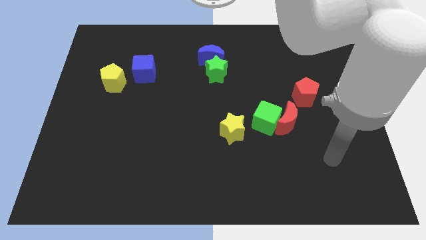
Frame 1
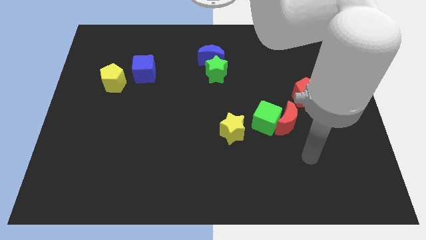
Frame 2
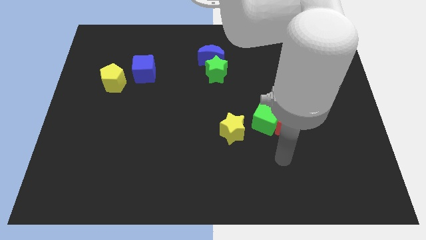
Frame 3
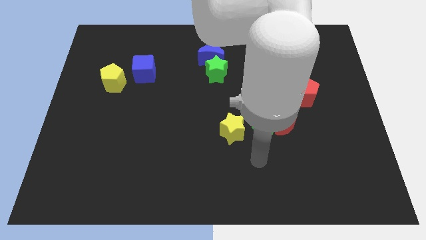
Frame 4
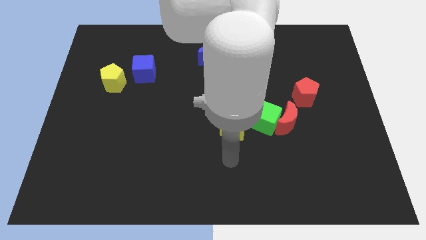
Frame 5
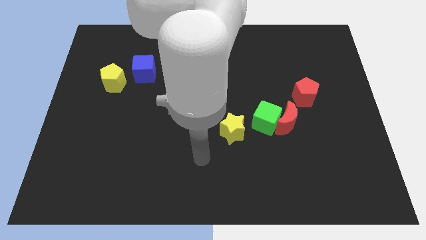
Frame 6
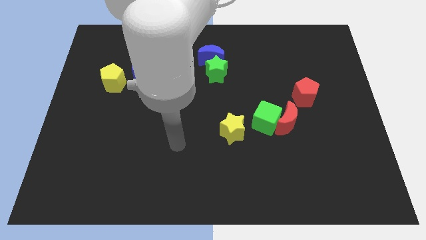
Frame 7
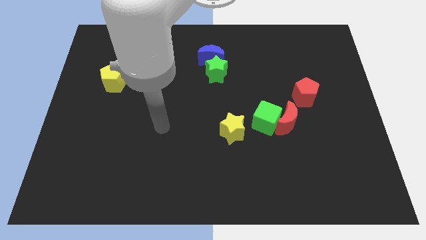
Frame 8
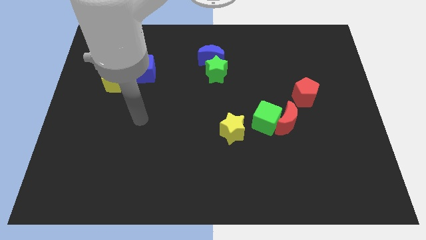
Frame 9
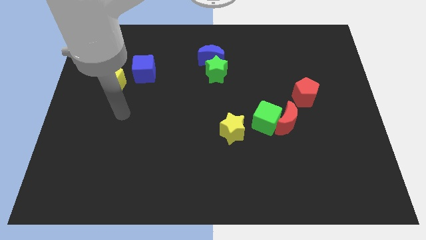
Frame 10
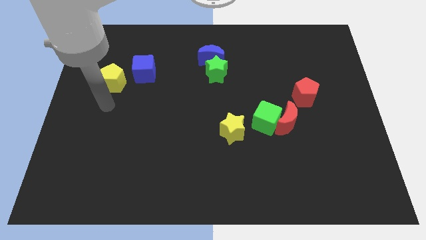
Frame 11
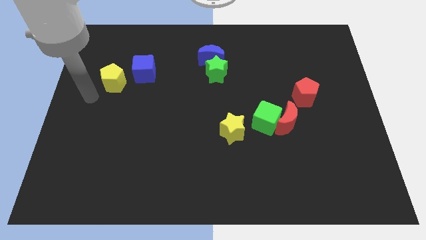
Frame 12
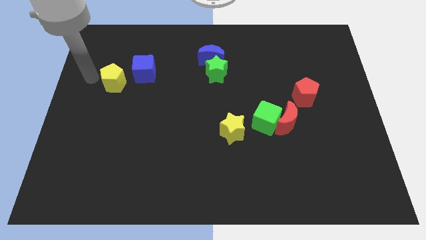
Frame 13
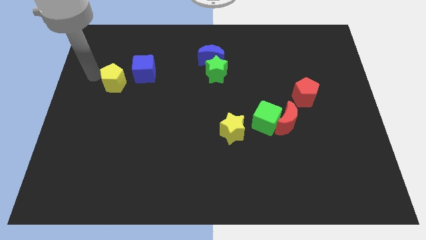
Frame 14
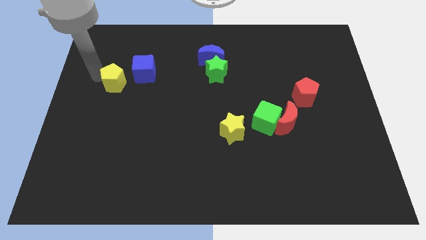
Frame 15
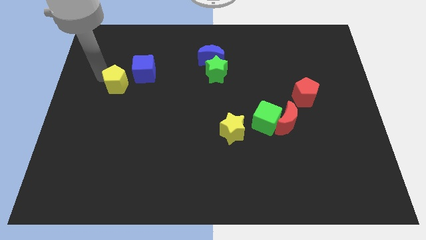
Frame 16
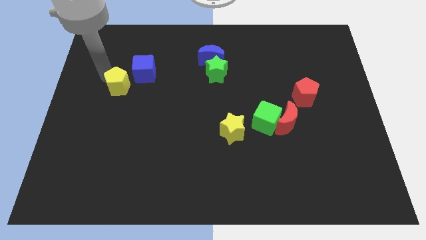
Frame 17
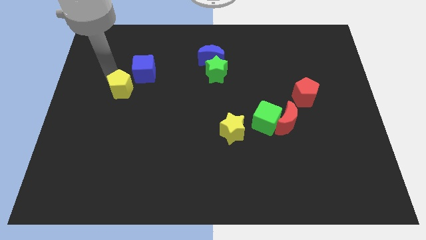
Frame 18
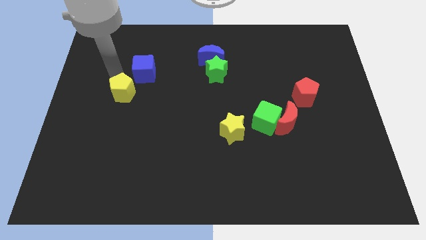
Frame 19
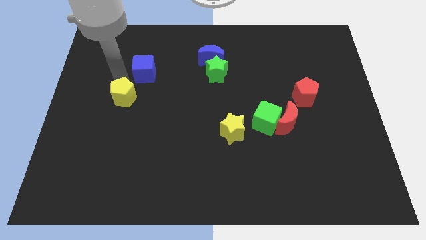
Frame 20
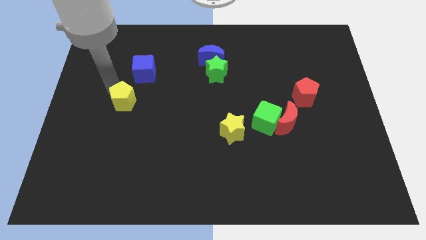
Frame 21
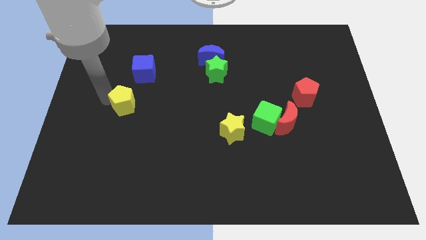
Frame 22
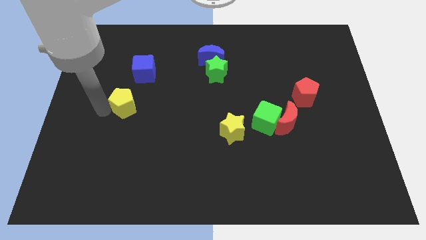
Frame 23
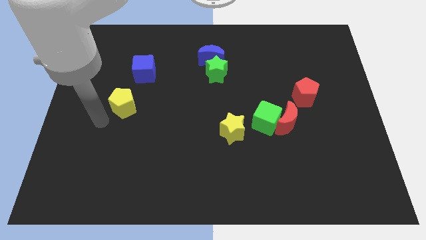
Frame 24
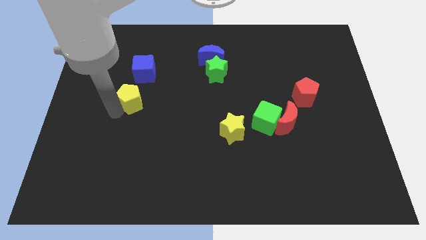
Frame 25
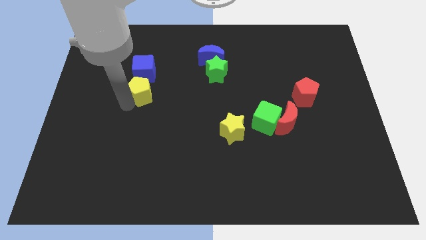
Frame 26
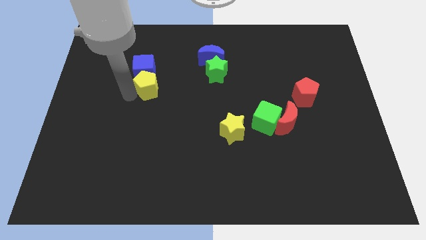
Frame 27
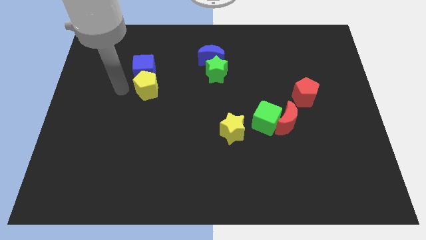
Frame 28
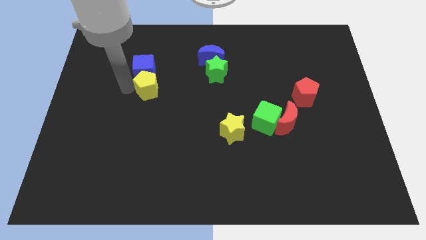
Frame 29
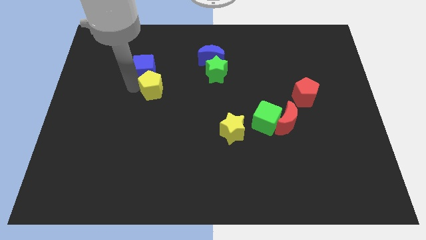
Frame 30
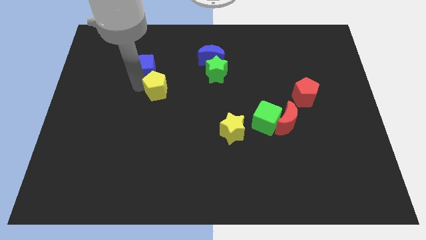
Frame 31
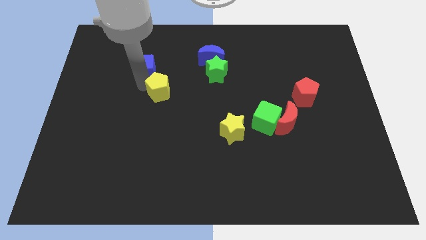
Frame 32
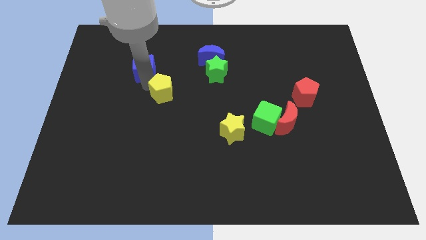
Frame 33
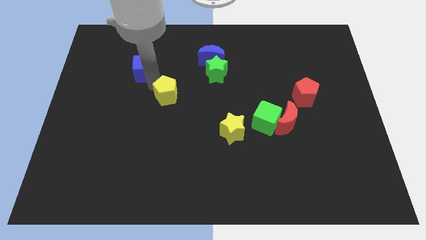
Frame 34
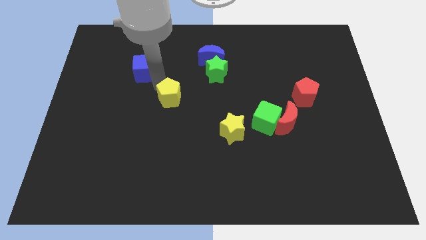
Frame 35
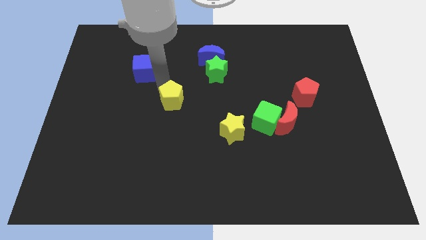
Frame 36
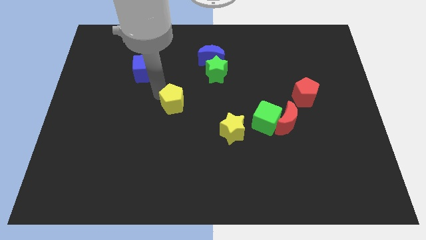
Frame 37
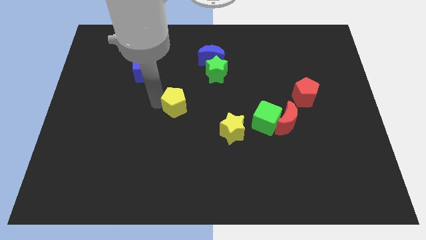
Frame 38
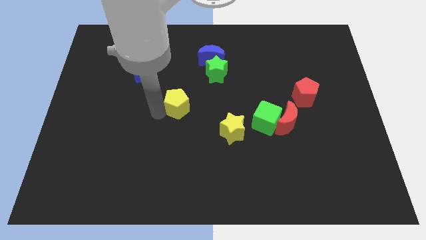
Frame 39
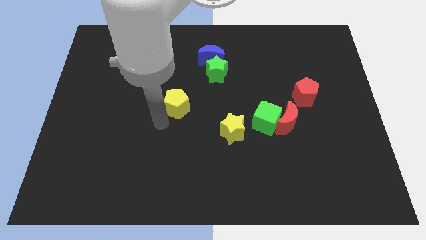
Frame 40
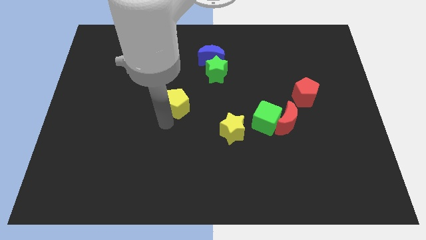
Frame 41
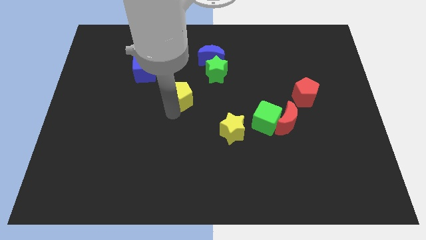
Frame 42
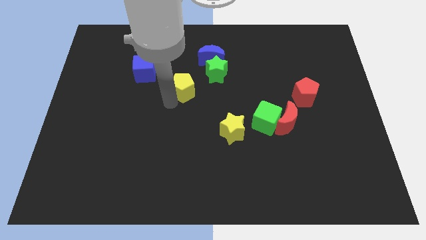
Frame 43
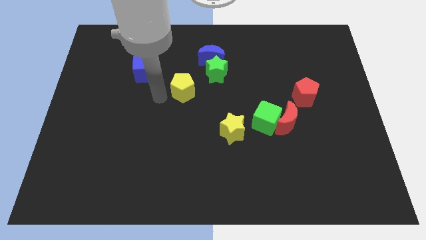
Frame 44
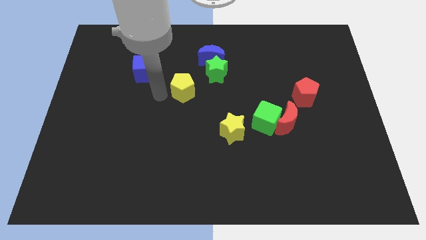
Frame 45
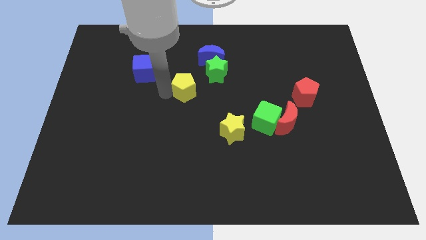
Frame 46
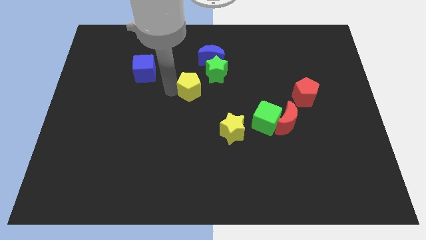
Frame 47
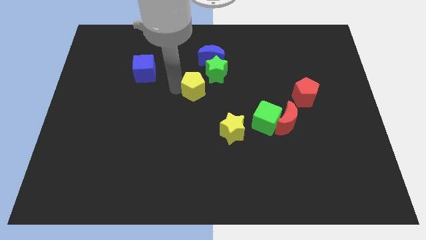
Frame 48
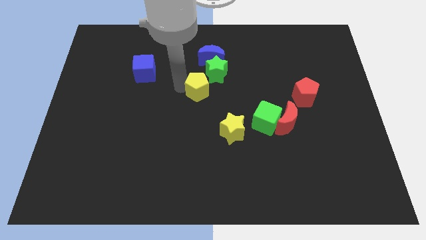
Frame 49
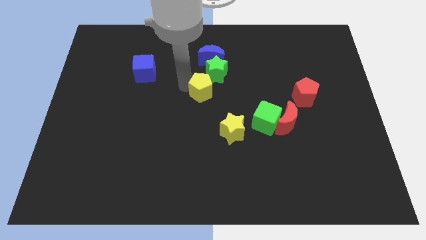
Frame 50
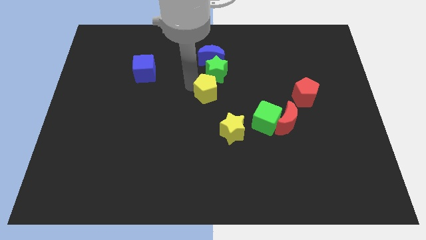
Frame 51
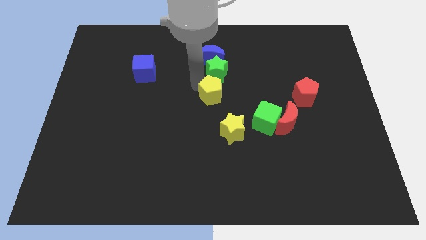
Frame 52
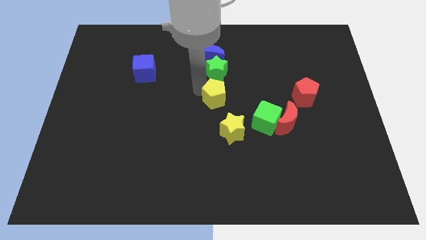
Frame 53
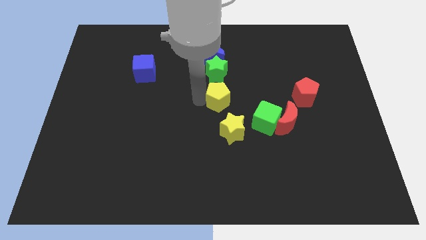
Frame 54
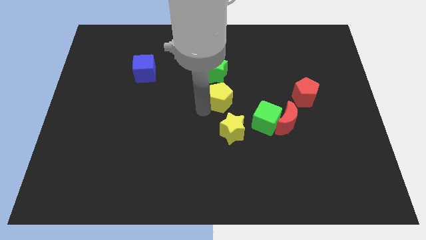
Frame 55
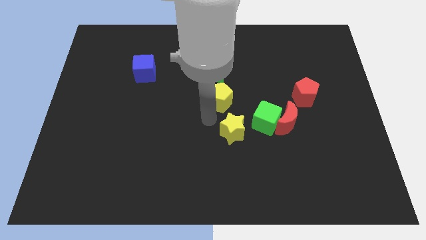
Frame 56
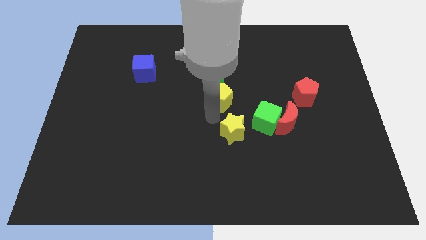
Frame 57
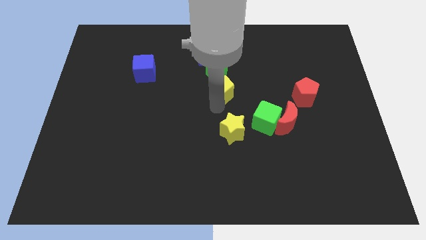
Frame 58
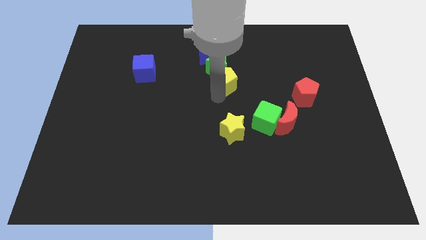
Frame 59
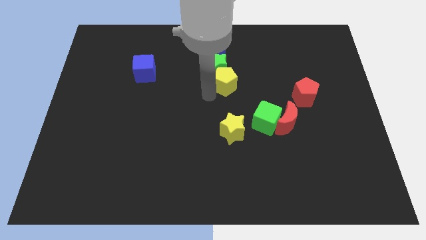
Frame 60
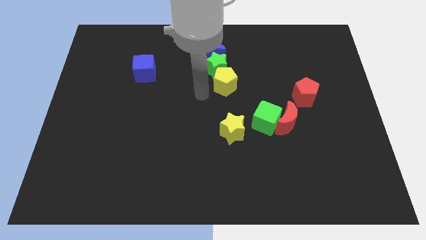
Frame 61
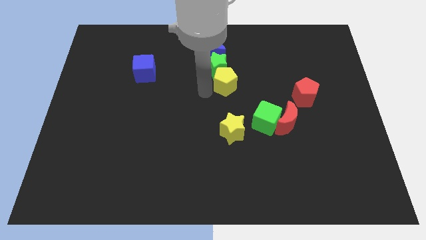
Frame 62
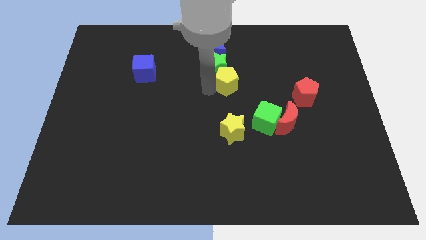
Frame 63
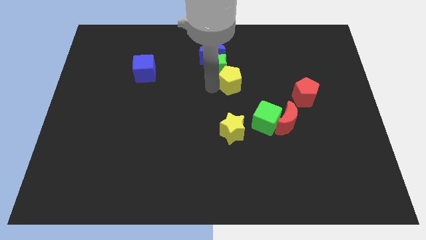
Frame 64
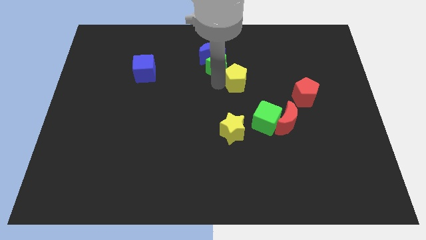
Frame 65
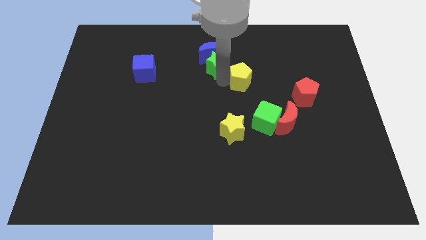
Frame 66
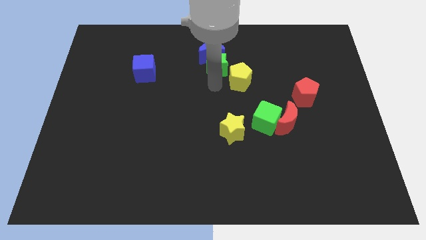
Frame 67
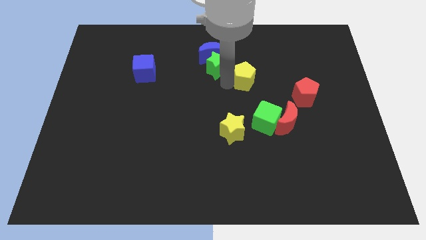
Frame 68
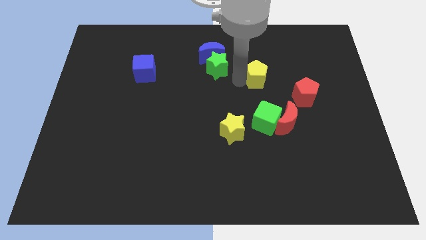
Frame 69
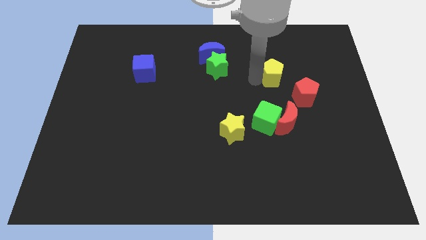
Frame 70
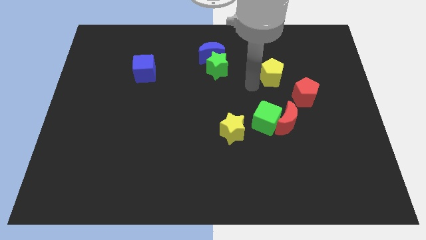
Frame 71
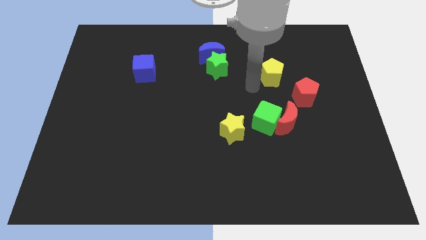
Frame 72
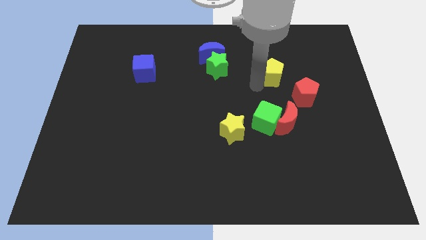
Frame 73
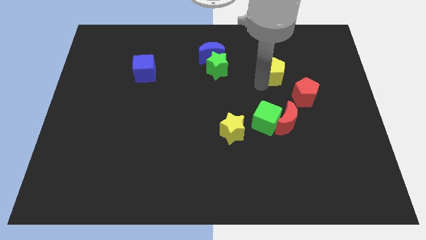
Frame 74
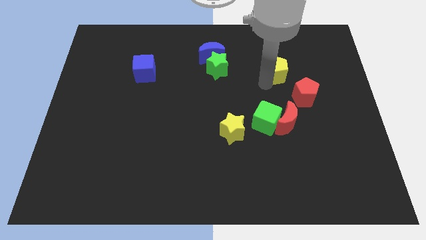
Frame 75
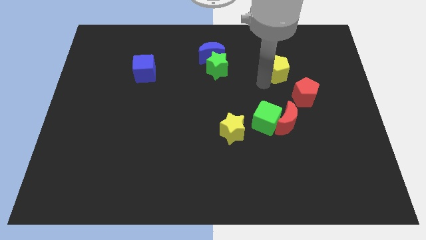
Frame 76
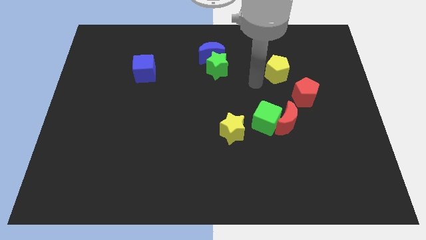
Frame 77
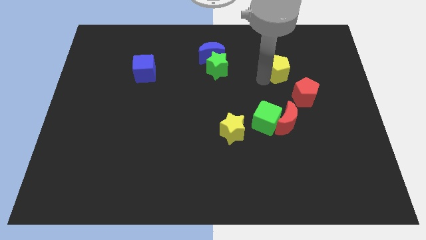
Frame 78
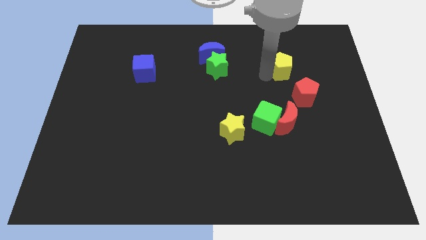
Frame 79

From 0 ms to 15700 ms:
push the yellow pentagon above the red pentagon
